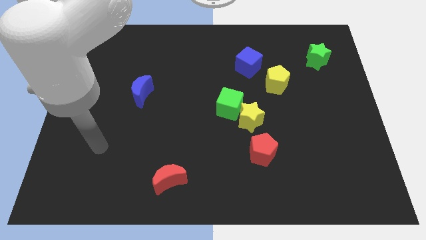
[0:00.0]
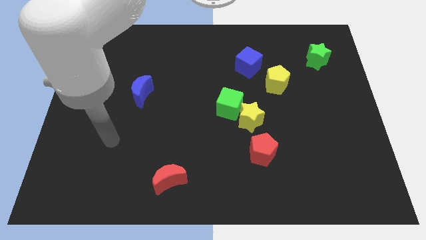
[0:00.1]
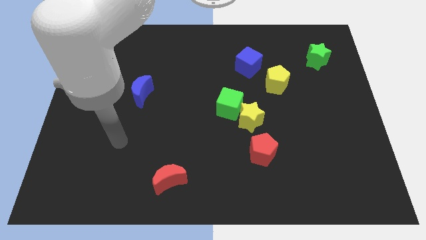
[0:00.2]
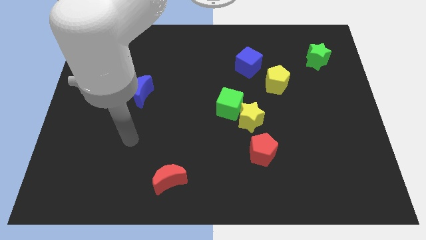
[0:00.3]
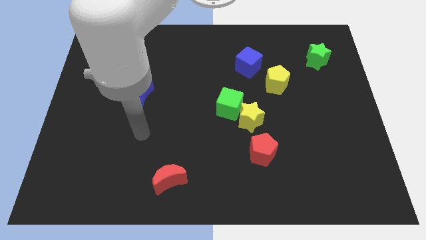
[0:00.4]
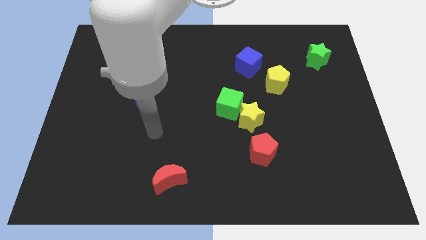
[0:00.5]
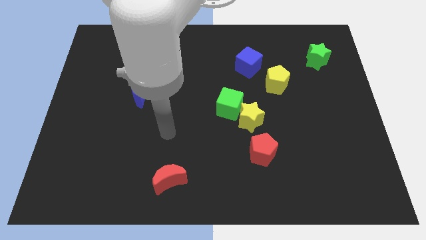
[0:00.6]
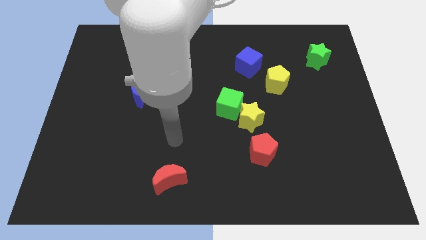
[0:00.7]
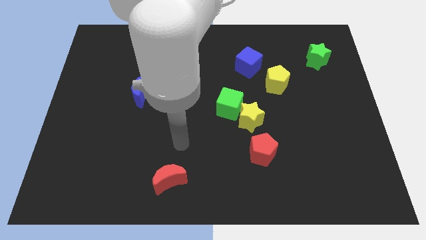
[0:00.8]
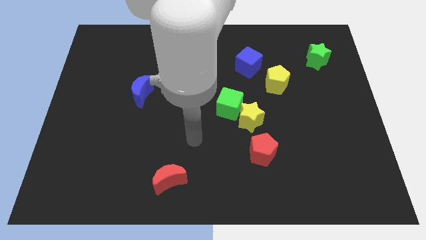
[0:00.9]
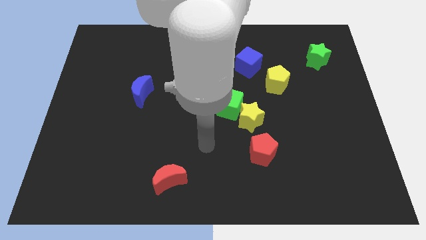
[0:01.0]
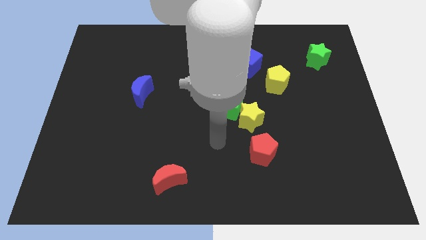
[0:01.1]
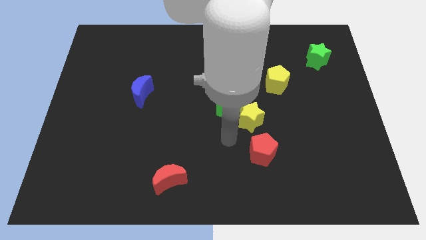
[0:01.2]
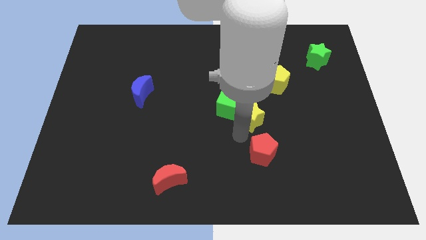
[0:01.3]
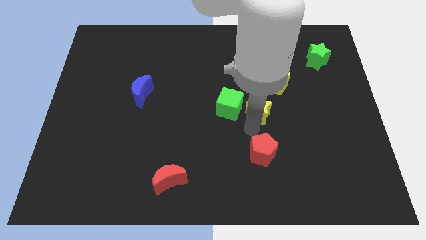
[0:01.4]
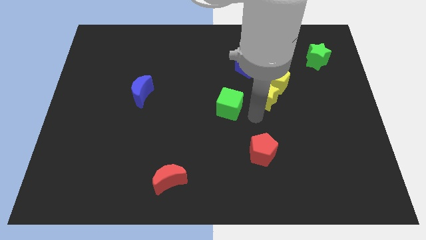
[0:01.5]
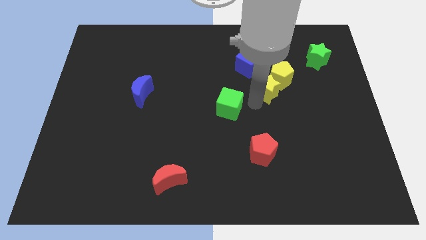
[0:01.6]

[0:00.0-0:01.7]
separate the green cube from the yellow star

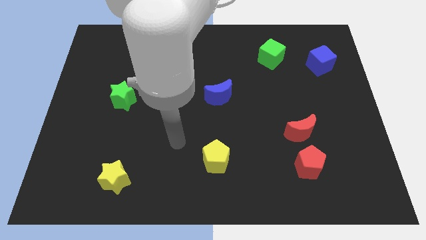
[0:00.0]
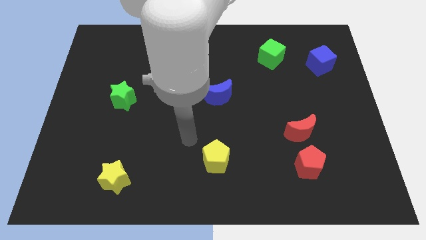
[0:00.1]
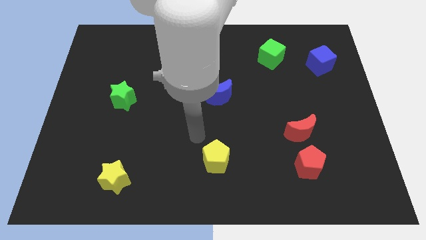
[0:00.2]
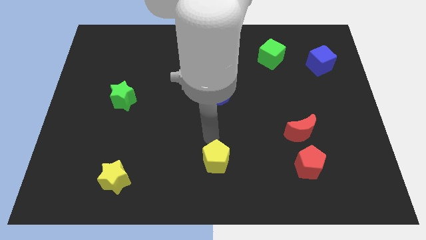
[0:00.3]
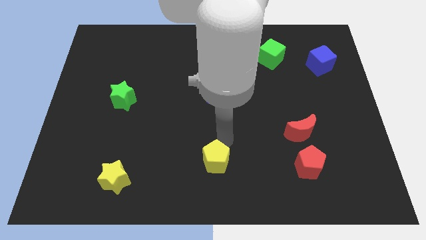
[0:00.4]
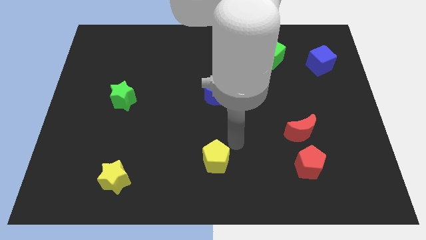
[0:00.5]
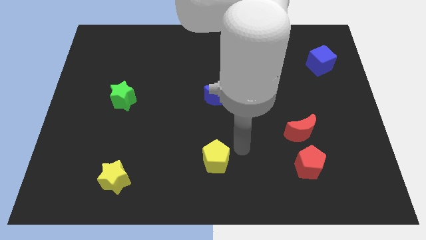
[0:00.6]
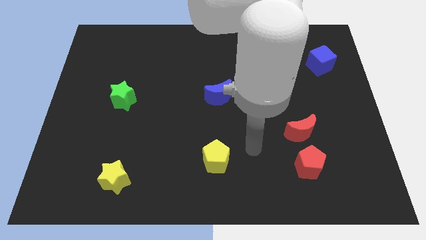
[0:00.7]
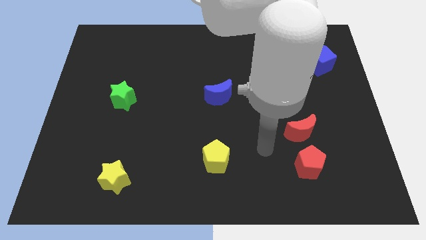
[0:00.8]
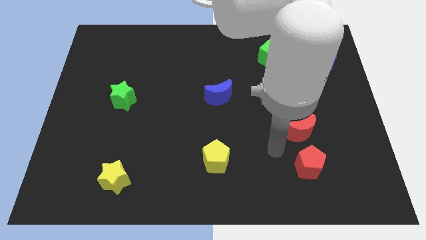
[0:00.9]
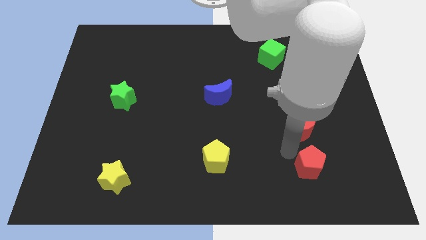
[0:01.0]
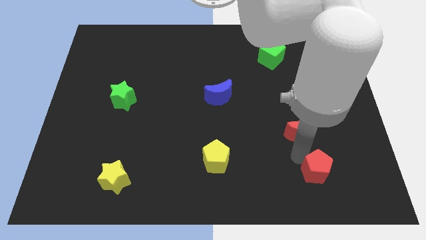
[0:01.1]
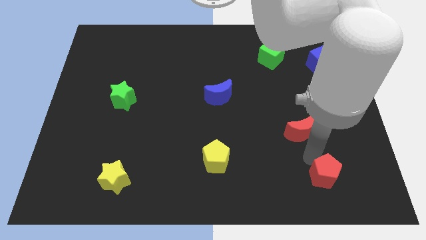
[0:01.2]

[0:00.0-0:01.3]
move the red moon away from the red pentagon

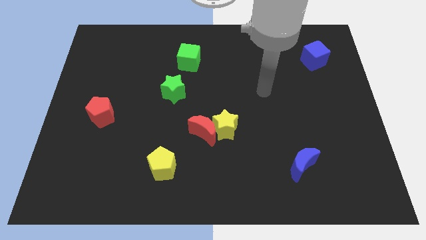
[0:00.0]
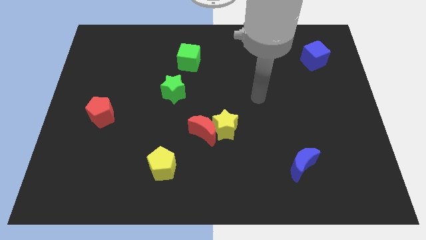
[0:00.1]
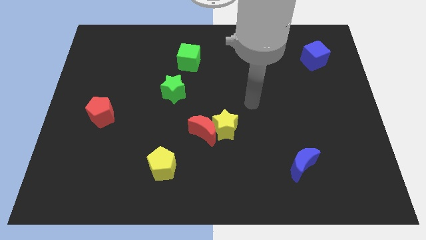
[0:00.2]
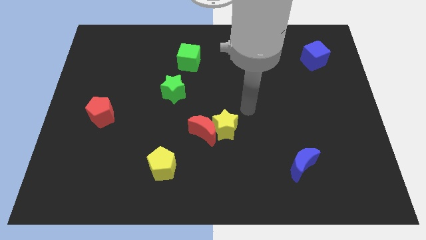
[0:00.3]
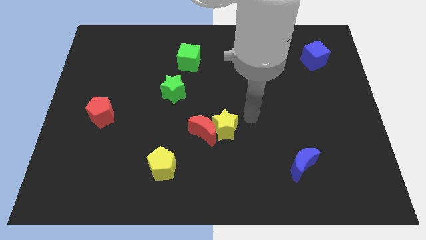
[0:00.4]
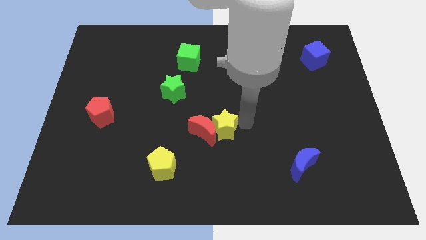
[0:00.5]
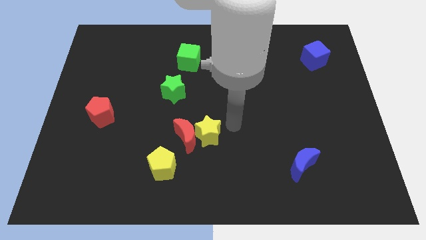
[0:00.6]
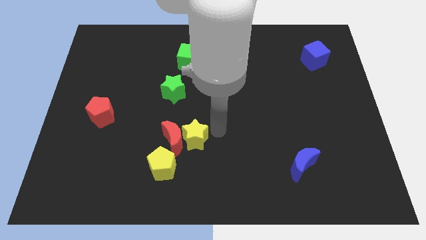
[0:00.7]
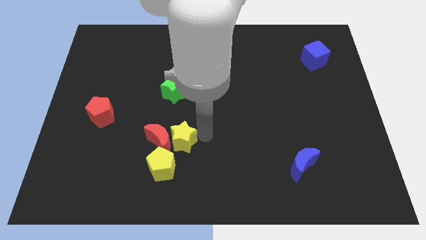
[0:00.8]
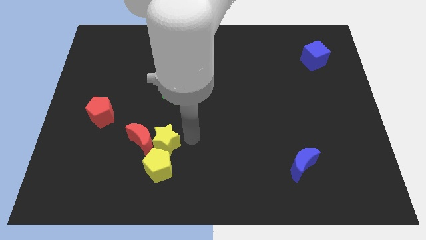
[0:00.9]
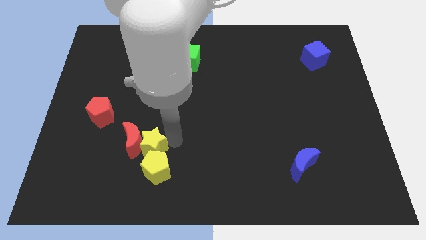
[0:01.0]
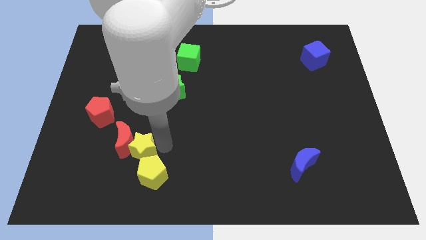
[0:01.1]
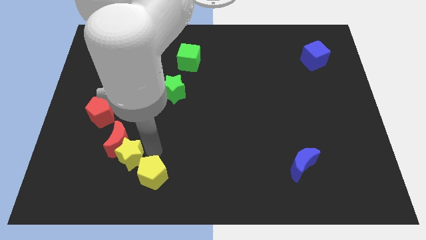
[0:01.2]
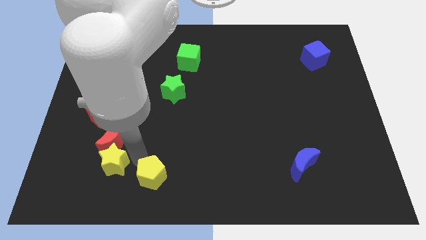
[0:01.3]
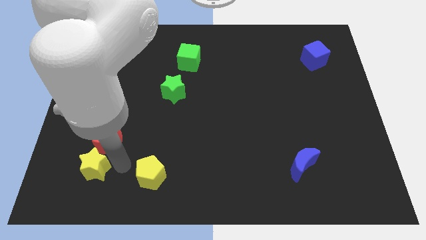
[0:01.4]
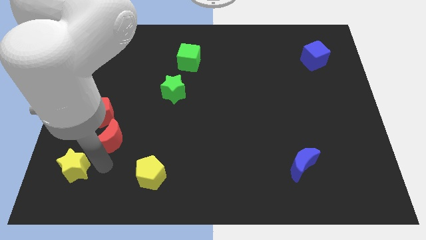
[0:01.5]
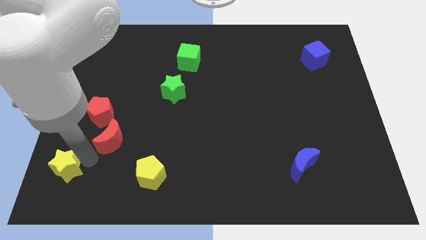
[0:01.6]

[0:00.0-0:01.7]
move the red moon away from the yellow star

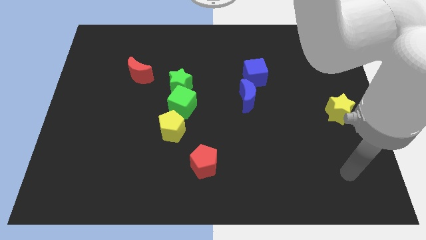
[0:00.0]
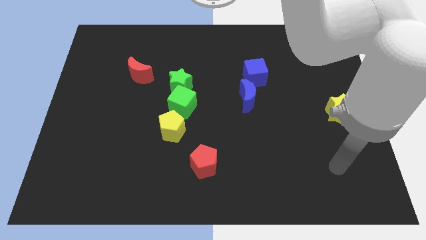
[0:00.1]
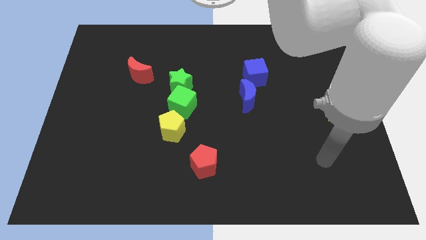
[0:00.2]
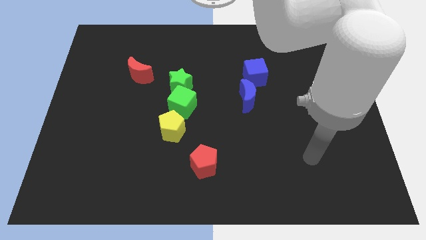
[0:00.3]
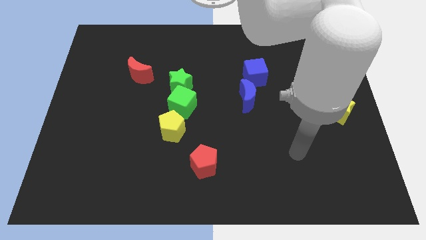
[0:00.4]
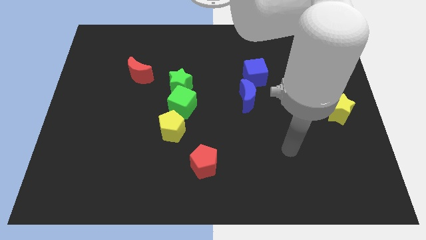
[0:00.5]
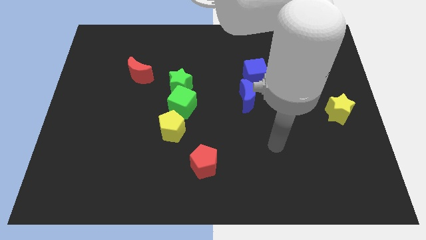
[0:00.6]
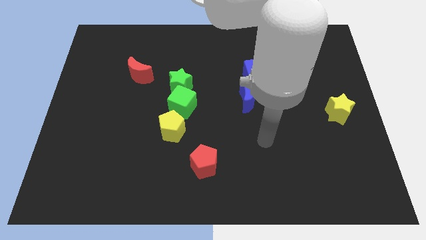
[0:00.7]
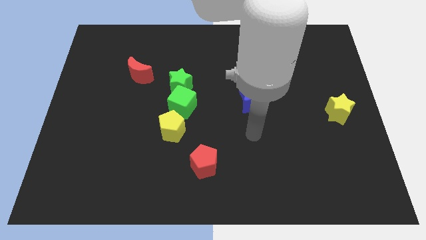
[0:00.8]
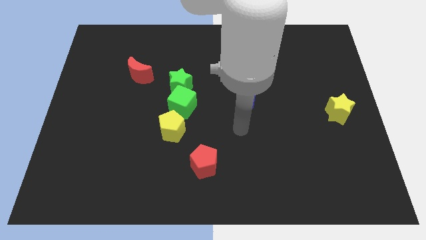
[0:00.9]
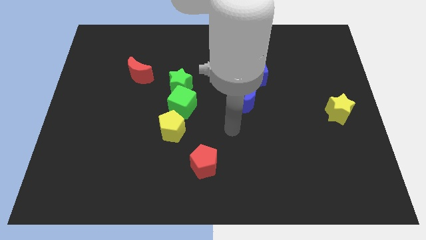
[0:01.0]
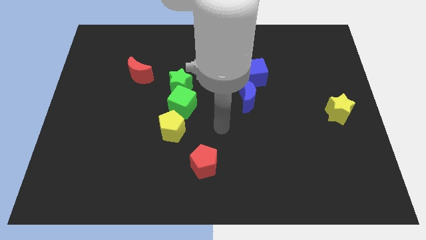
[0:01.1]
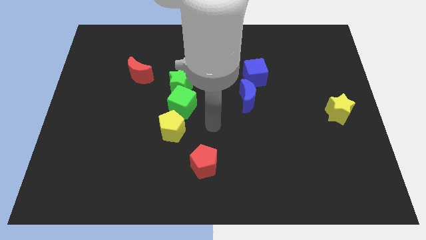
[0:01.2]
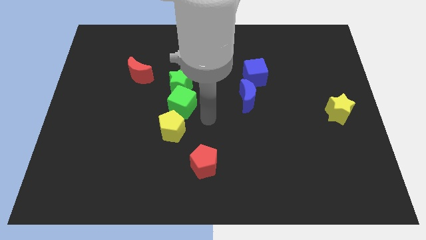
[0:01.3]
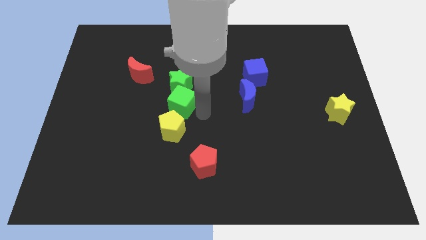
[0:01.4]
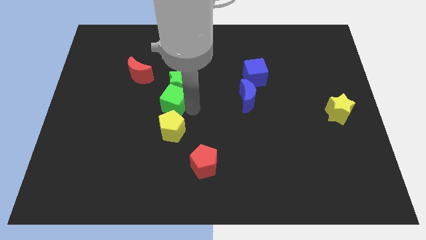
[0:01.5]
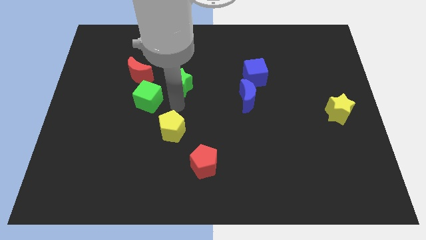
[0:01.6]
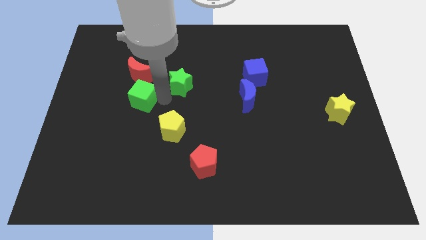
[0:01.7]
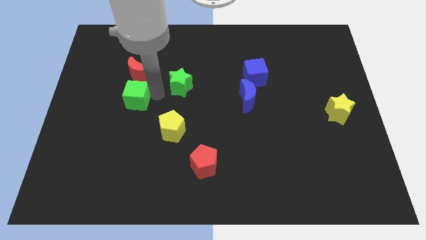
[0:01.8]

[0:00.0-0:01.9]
separate the green star from the green cube

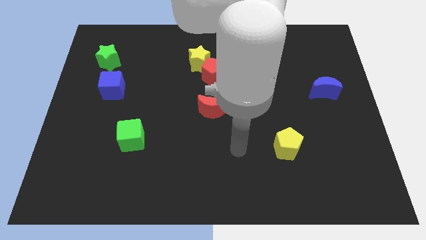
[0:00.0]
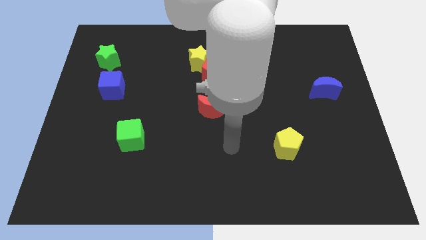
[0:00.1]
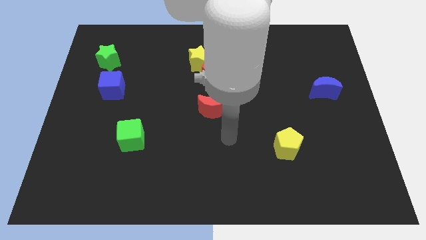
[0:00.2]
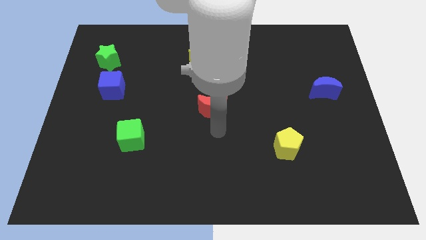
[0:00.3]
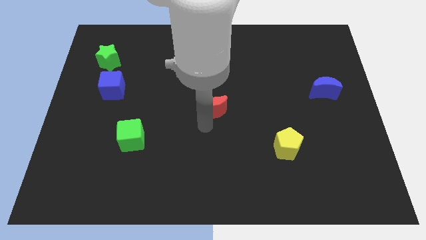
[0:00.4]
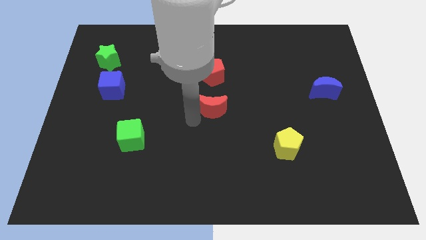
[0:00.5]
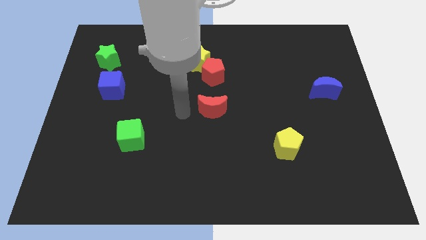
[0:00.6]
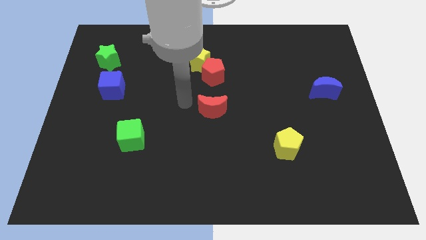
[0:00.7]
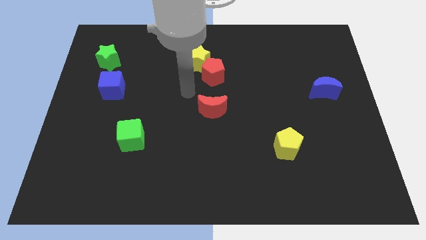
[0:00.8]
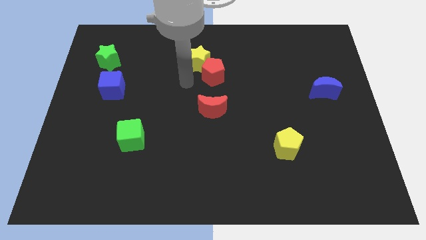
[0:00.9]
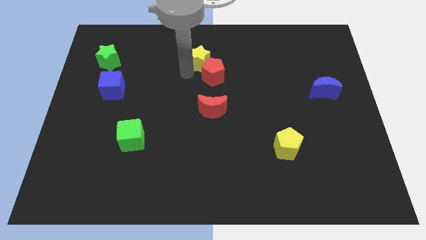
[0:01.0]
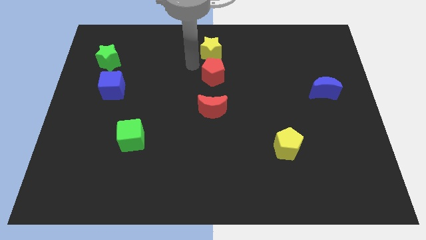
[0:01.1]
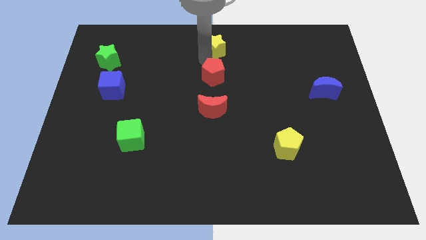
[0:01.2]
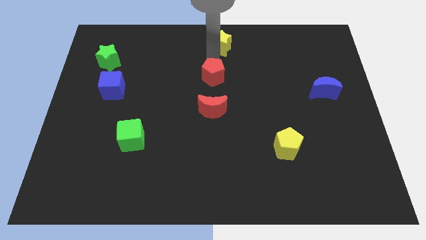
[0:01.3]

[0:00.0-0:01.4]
pull the red pentagon apart from the yellow star

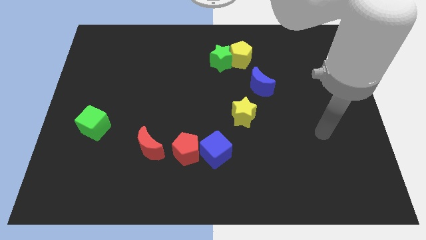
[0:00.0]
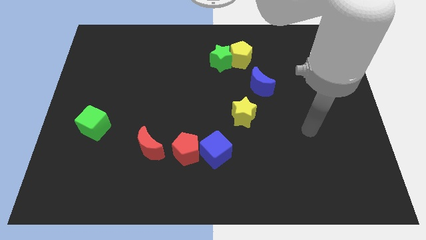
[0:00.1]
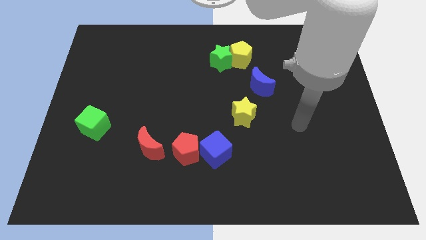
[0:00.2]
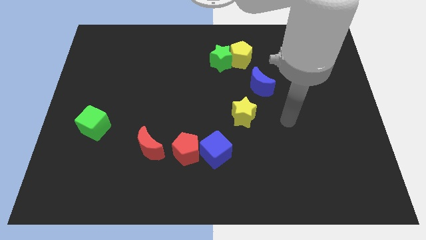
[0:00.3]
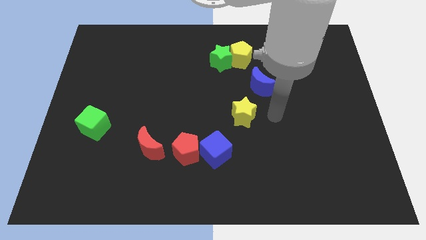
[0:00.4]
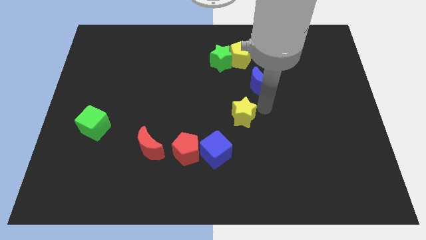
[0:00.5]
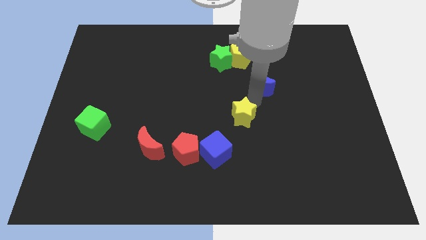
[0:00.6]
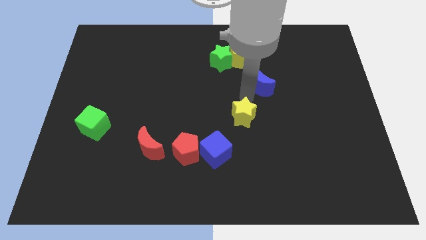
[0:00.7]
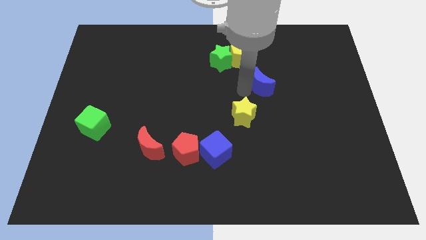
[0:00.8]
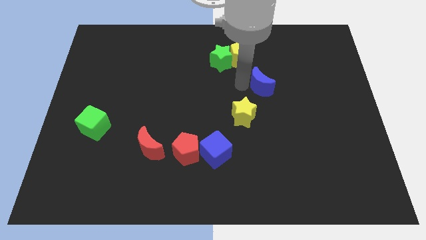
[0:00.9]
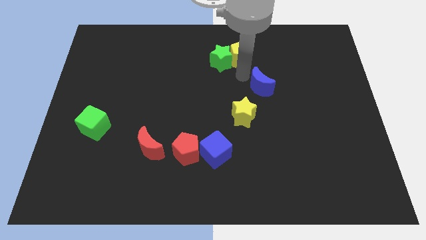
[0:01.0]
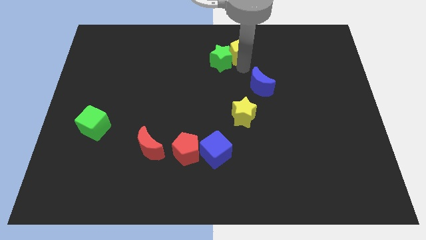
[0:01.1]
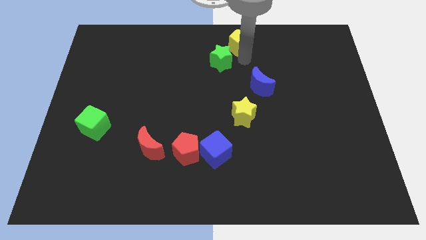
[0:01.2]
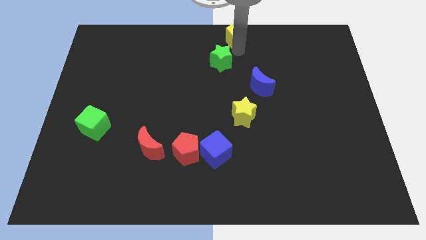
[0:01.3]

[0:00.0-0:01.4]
move the green star away from the yellow pentagon
